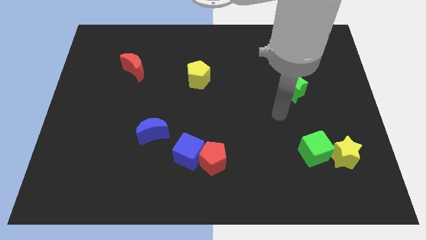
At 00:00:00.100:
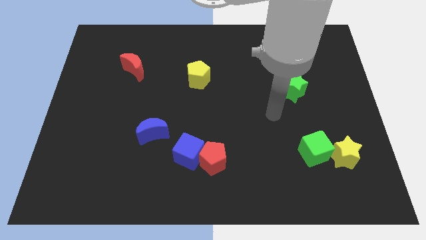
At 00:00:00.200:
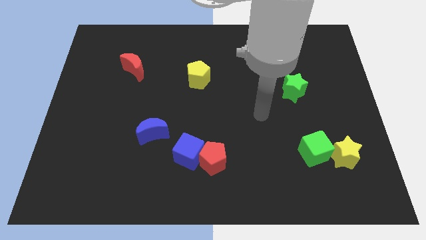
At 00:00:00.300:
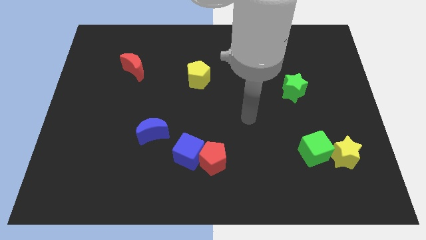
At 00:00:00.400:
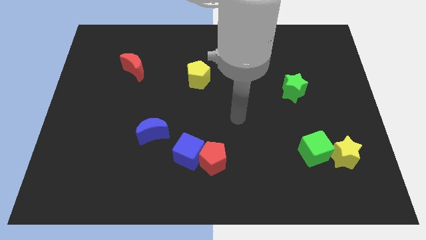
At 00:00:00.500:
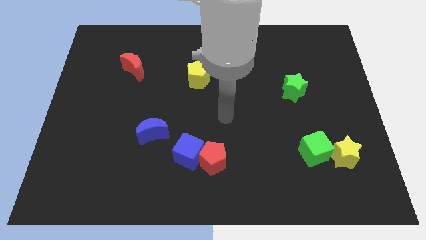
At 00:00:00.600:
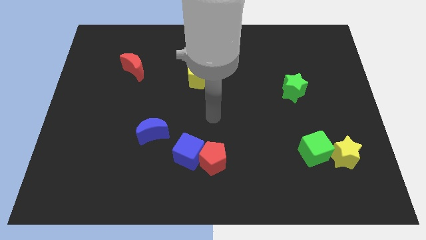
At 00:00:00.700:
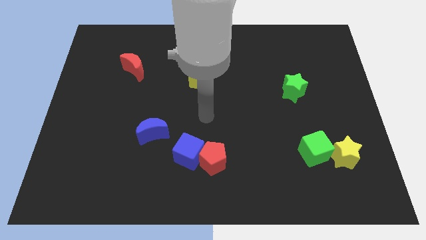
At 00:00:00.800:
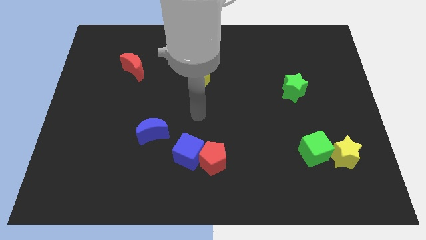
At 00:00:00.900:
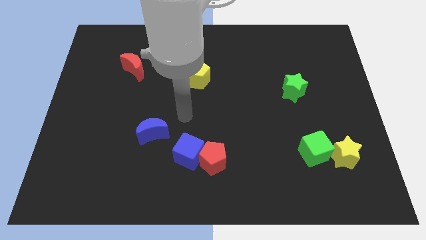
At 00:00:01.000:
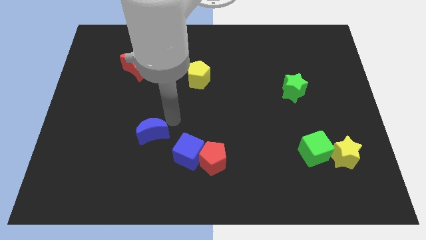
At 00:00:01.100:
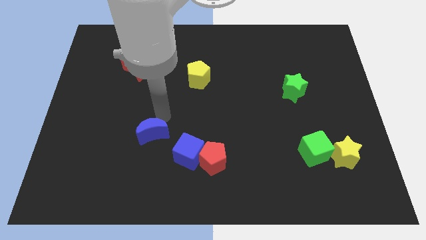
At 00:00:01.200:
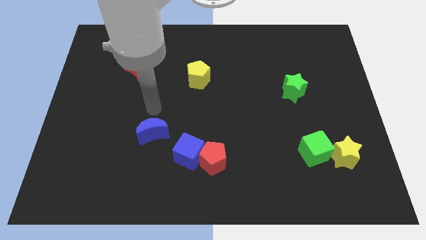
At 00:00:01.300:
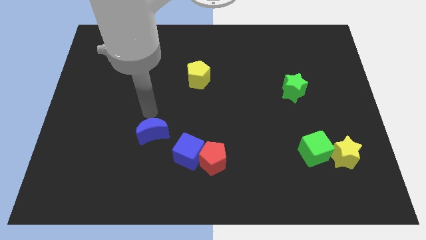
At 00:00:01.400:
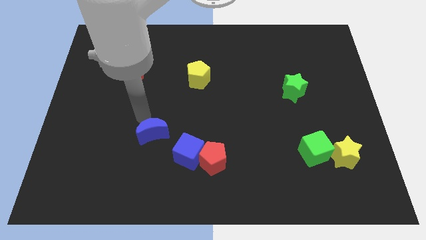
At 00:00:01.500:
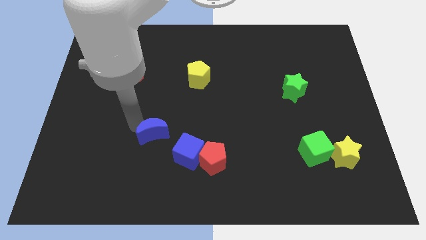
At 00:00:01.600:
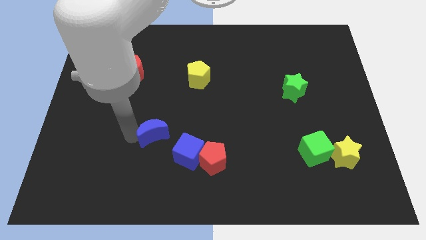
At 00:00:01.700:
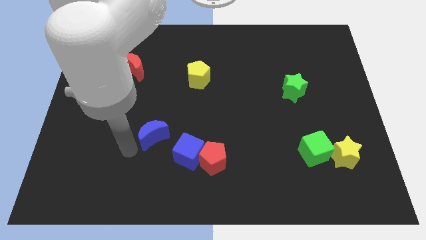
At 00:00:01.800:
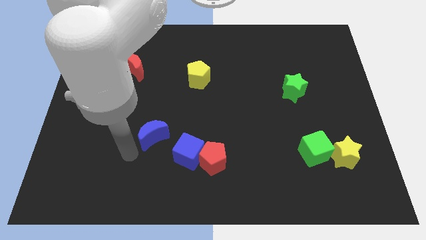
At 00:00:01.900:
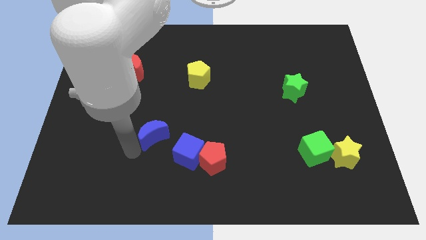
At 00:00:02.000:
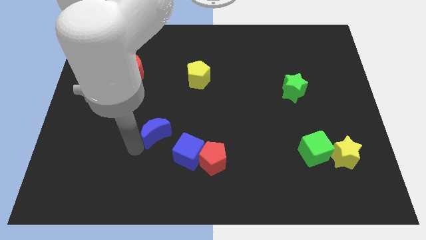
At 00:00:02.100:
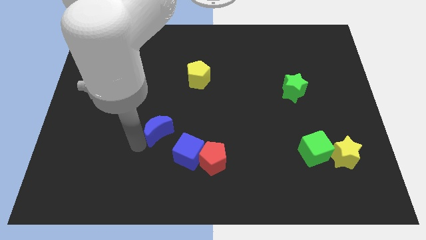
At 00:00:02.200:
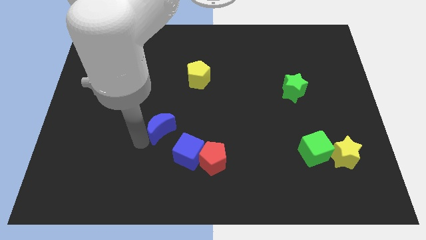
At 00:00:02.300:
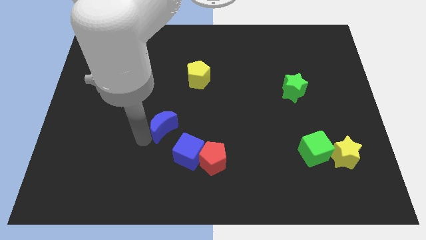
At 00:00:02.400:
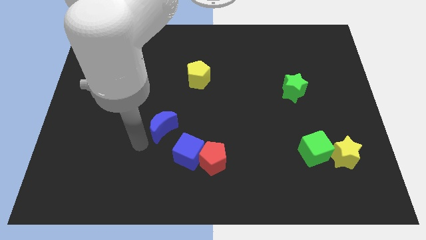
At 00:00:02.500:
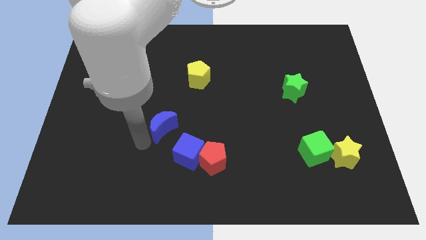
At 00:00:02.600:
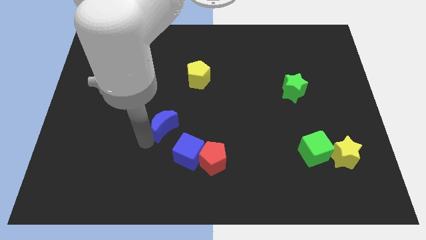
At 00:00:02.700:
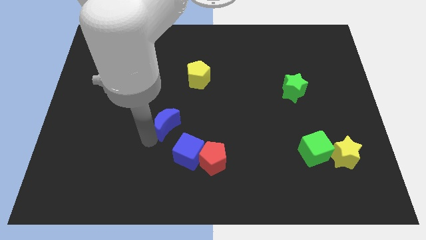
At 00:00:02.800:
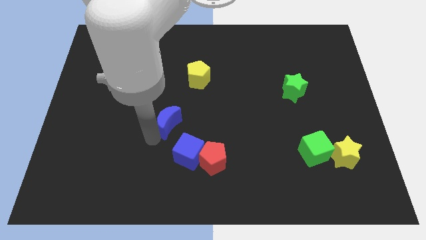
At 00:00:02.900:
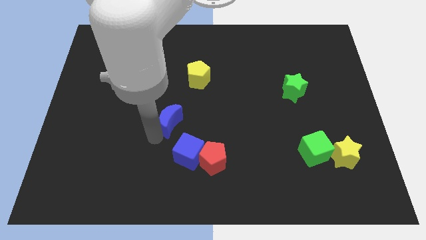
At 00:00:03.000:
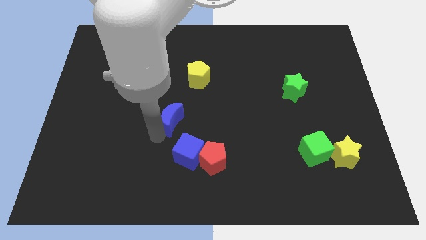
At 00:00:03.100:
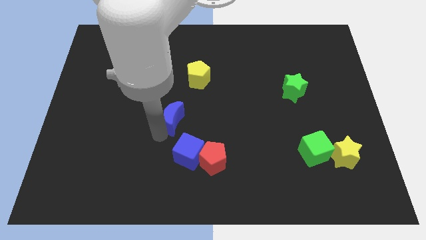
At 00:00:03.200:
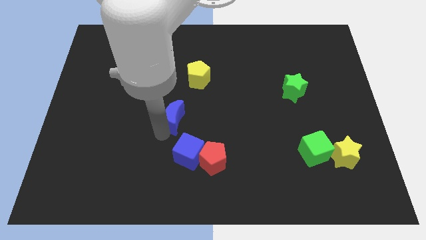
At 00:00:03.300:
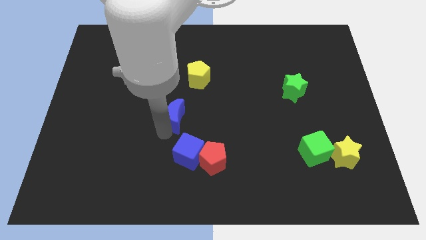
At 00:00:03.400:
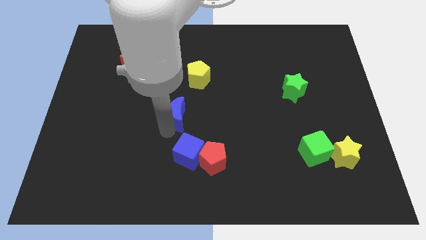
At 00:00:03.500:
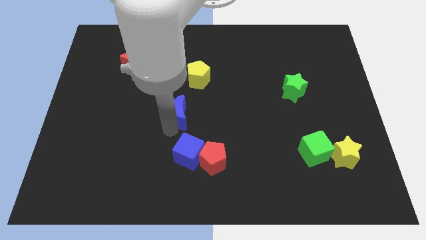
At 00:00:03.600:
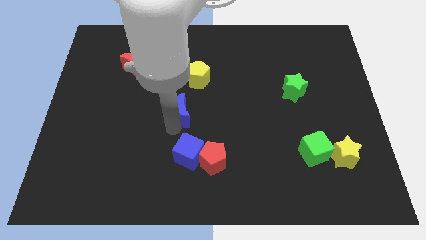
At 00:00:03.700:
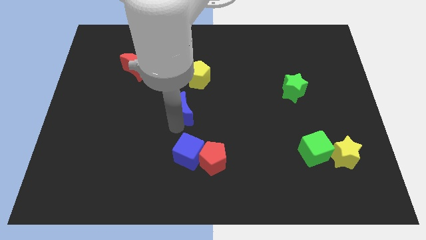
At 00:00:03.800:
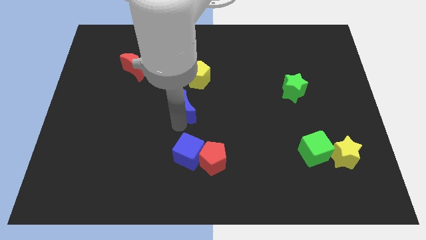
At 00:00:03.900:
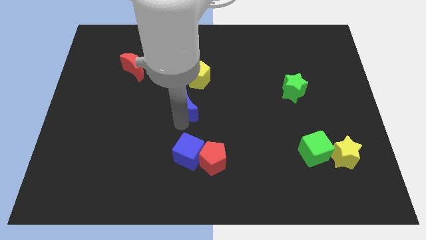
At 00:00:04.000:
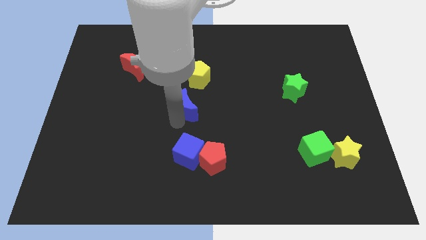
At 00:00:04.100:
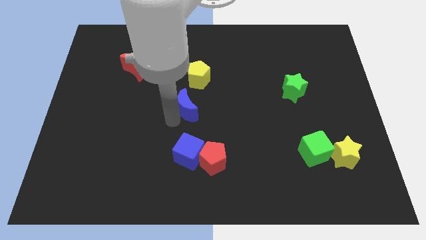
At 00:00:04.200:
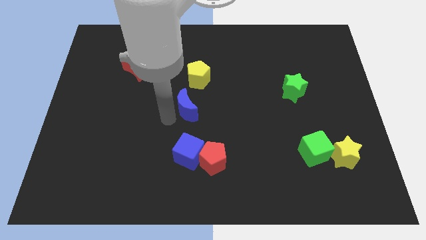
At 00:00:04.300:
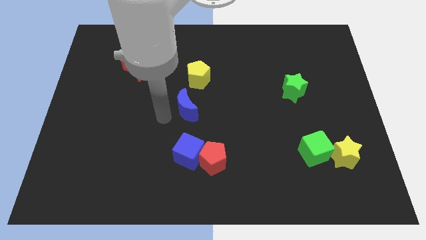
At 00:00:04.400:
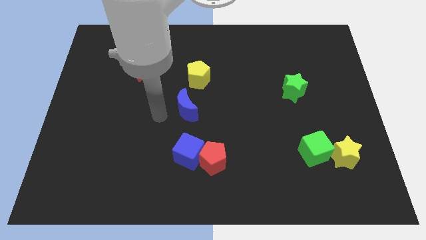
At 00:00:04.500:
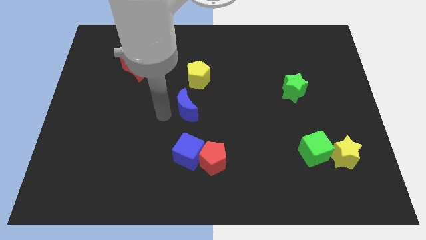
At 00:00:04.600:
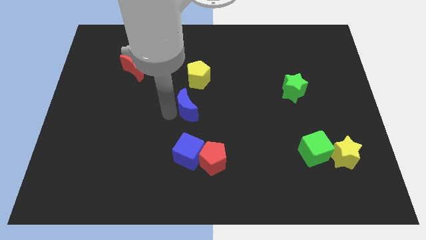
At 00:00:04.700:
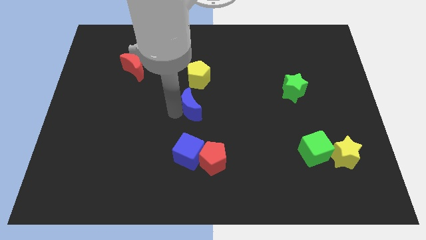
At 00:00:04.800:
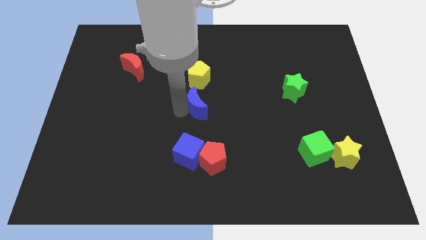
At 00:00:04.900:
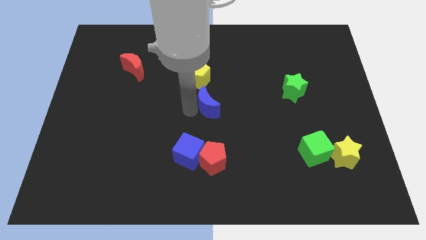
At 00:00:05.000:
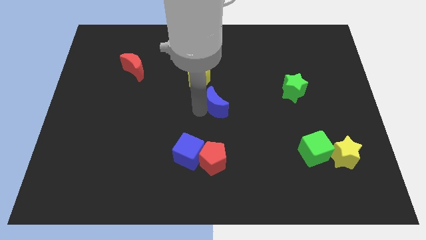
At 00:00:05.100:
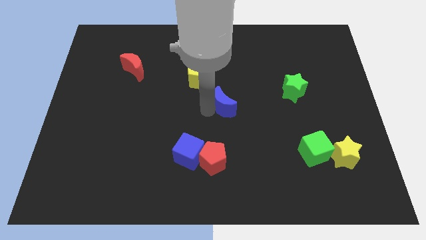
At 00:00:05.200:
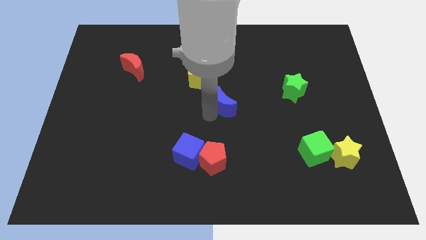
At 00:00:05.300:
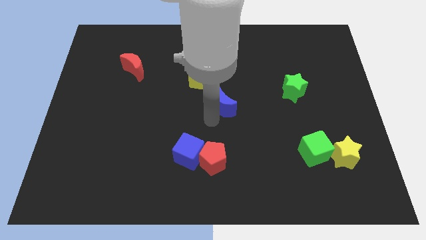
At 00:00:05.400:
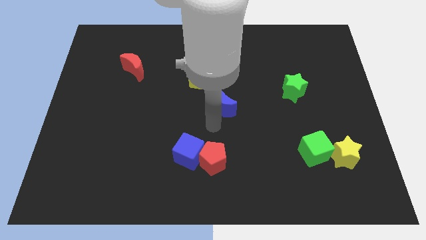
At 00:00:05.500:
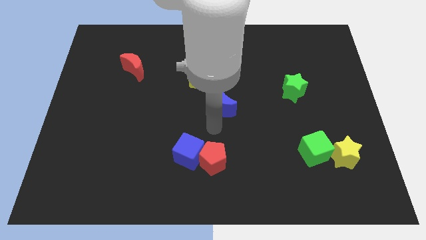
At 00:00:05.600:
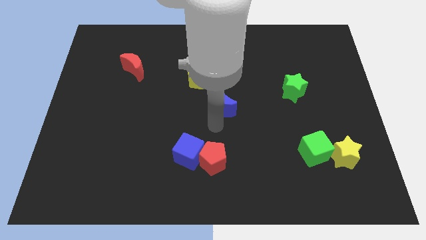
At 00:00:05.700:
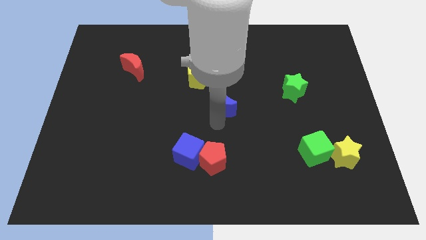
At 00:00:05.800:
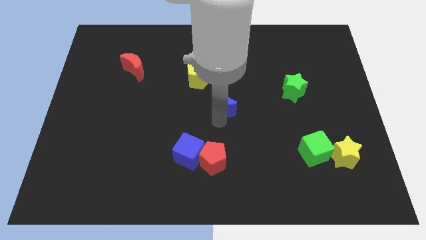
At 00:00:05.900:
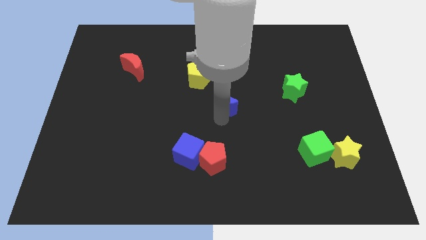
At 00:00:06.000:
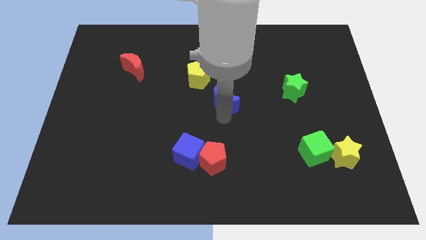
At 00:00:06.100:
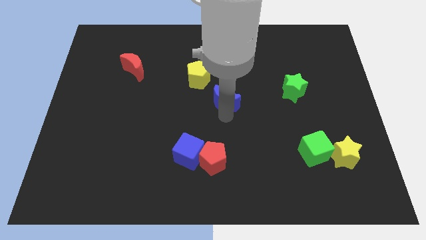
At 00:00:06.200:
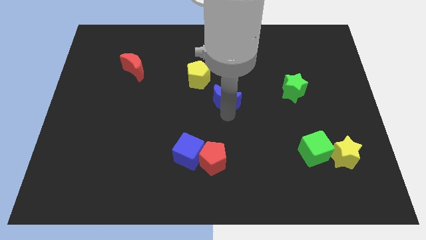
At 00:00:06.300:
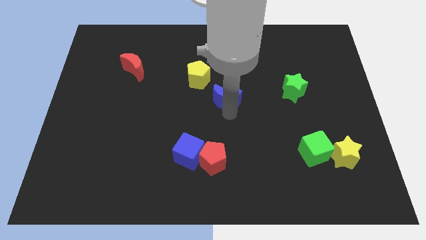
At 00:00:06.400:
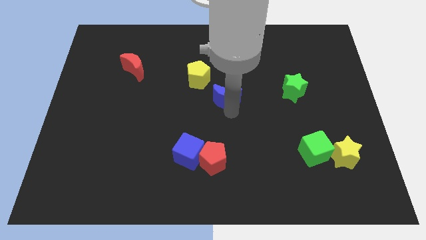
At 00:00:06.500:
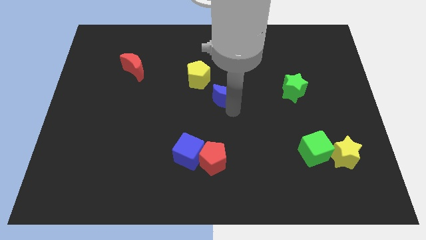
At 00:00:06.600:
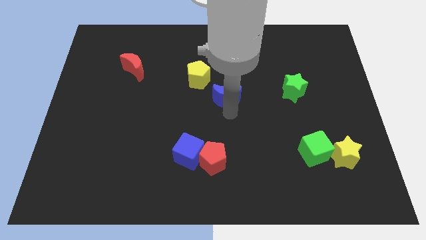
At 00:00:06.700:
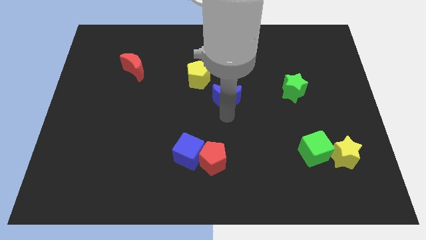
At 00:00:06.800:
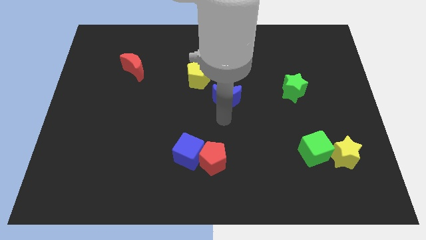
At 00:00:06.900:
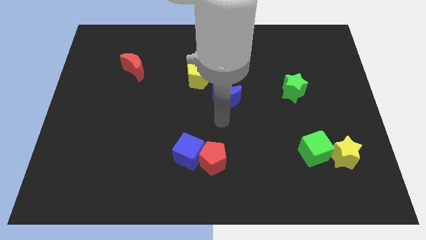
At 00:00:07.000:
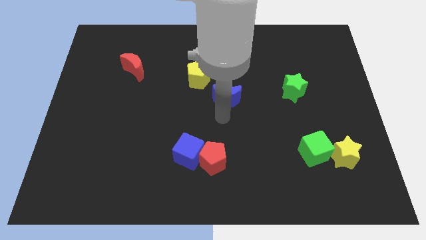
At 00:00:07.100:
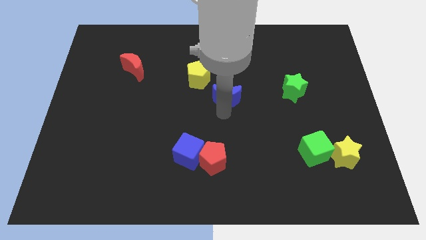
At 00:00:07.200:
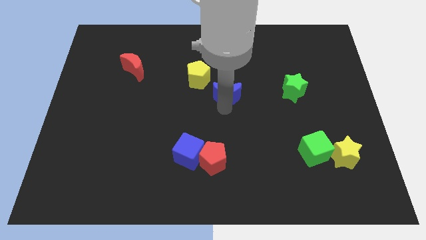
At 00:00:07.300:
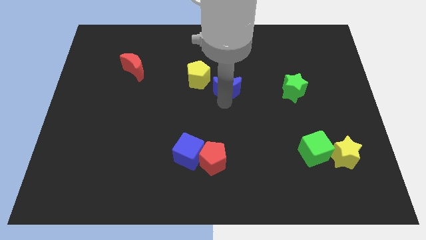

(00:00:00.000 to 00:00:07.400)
push the blue moon right of the yellow pentagon
